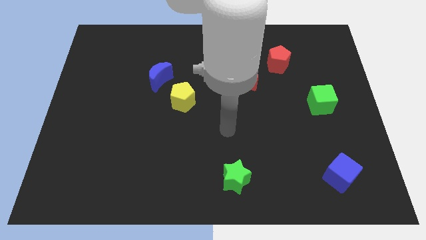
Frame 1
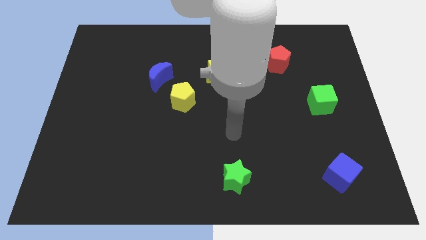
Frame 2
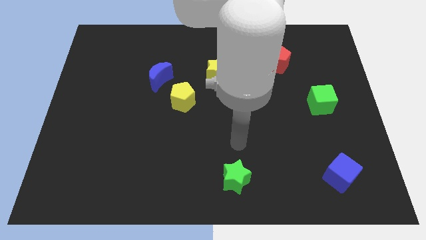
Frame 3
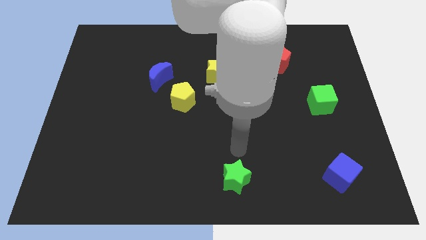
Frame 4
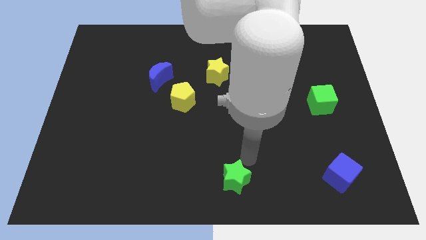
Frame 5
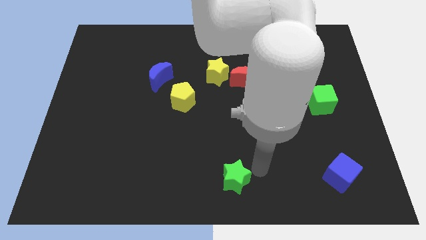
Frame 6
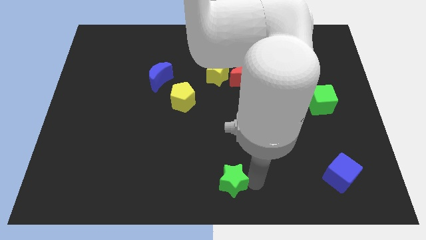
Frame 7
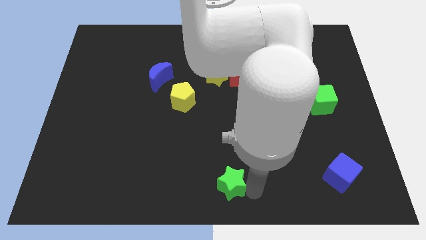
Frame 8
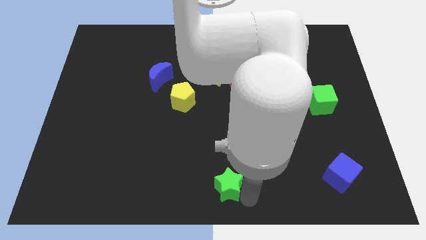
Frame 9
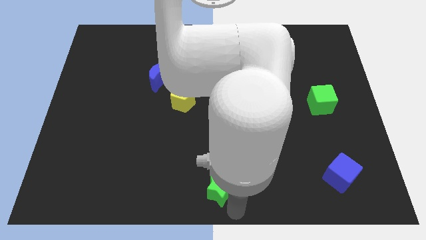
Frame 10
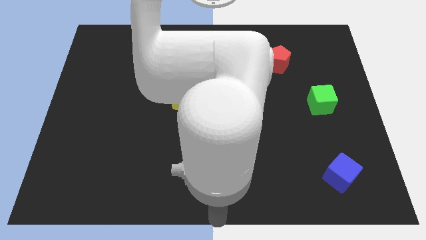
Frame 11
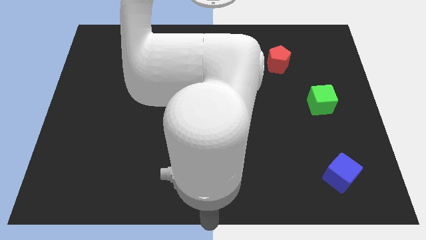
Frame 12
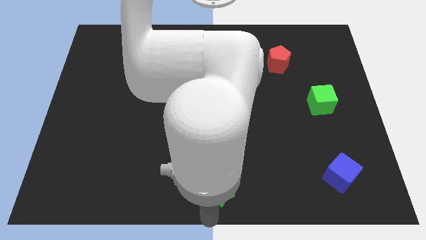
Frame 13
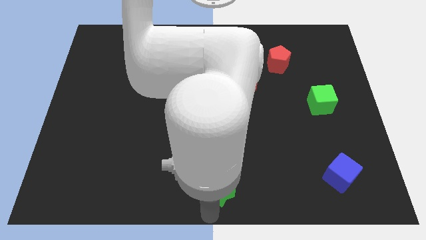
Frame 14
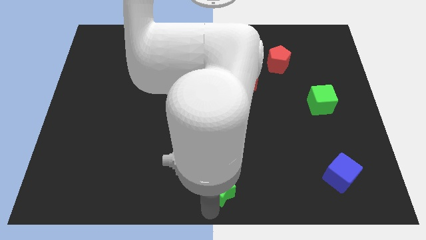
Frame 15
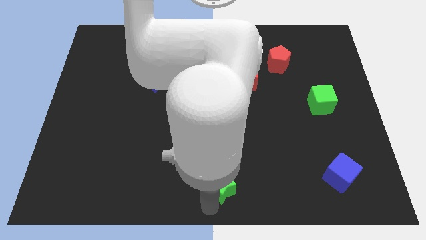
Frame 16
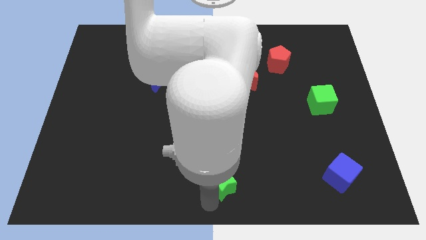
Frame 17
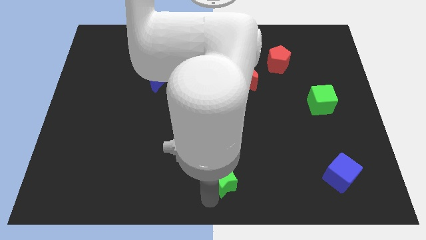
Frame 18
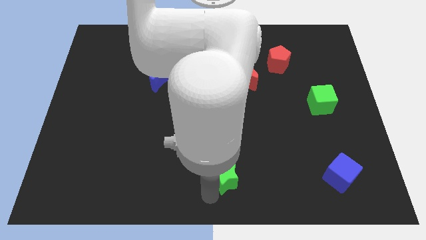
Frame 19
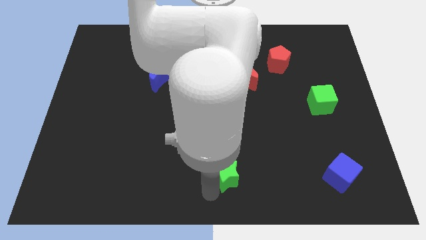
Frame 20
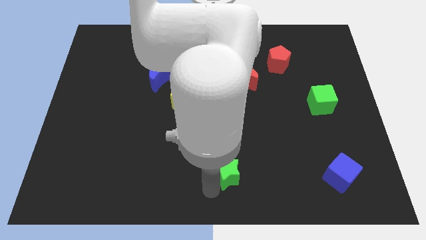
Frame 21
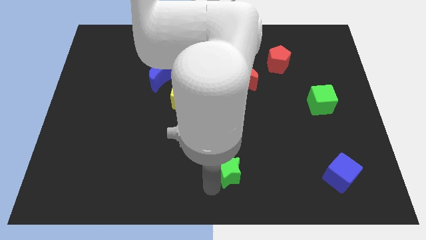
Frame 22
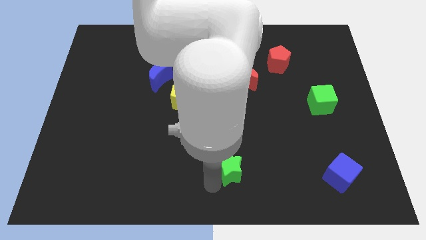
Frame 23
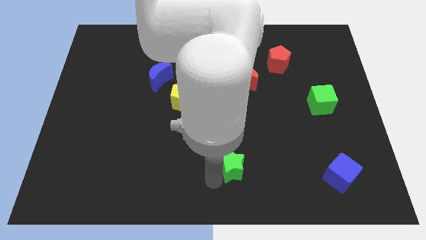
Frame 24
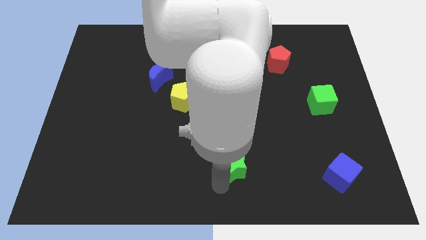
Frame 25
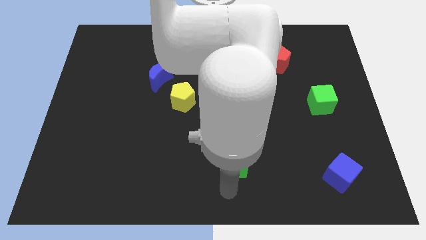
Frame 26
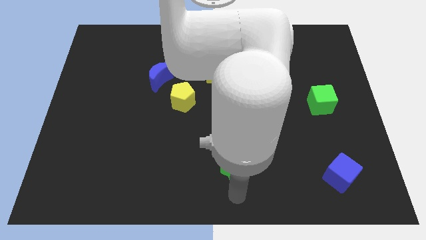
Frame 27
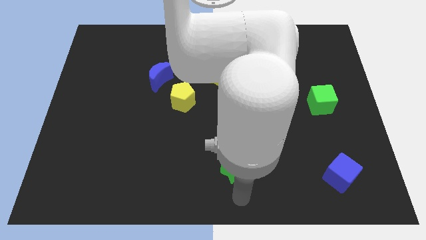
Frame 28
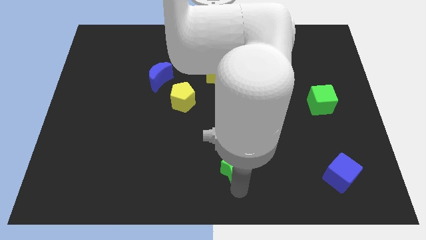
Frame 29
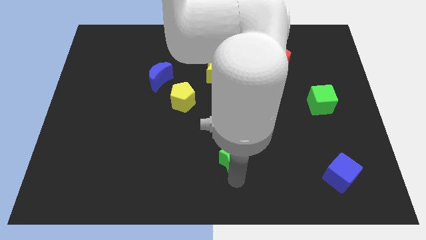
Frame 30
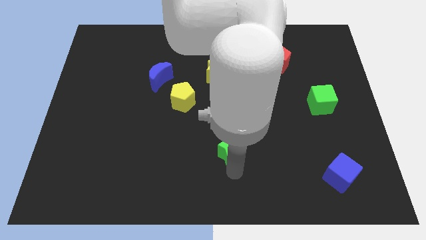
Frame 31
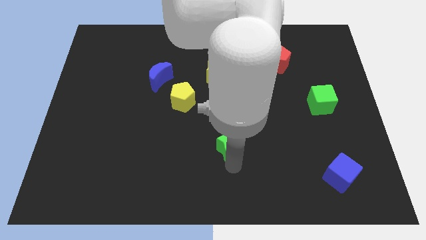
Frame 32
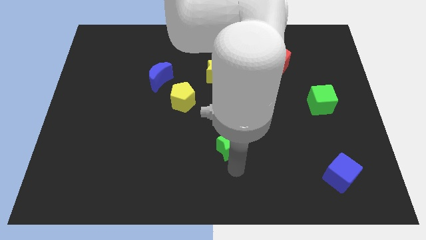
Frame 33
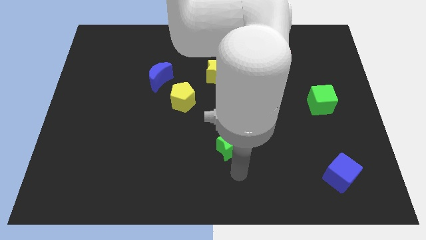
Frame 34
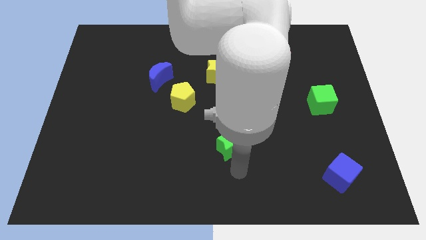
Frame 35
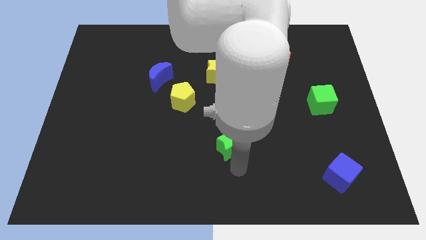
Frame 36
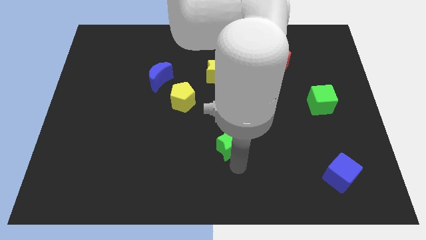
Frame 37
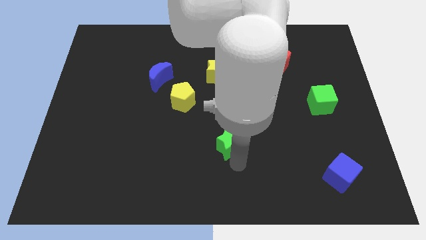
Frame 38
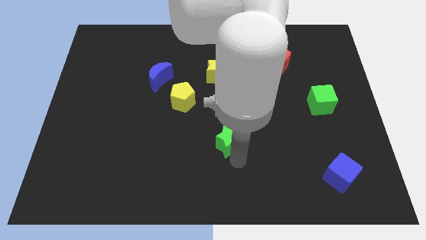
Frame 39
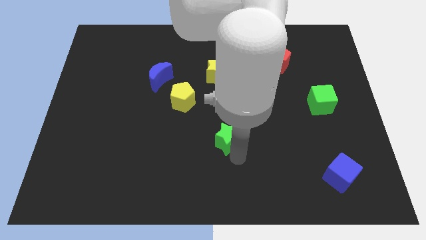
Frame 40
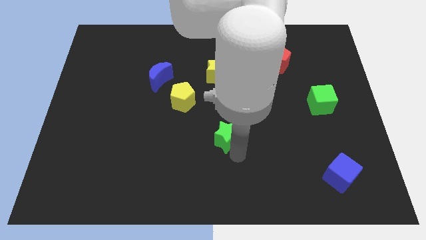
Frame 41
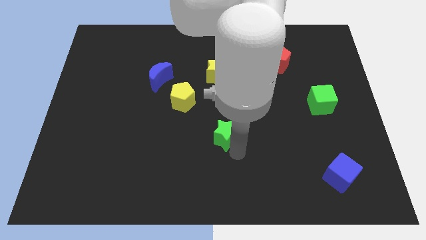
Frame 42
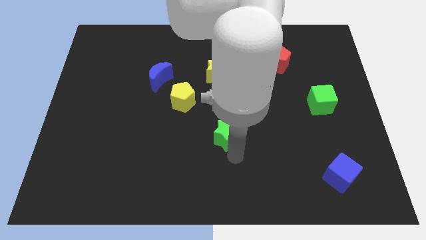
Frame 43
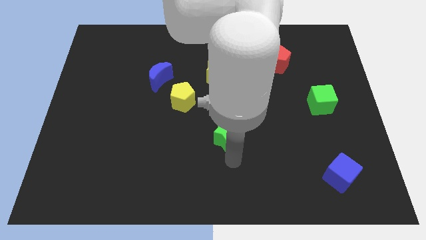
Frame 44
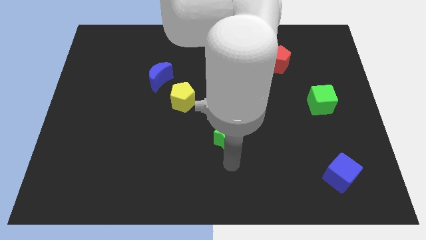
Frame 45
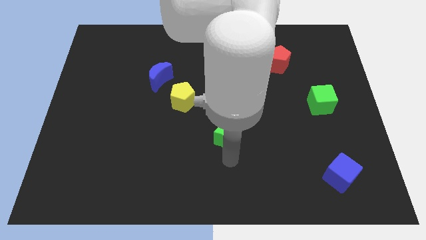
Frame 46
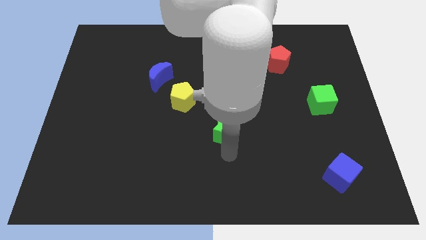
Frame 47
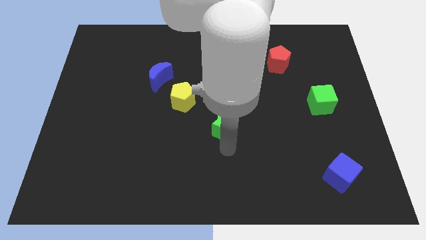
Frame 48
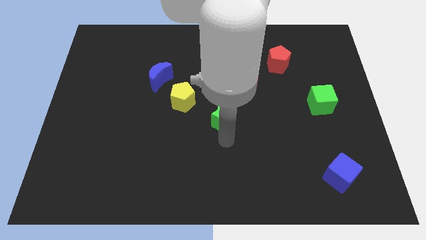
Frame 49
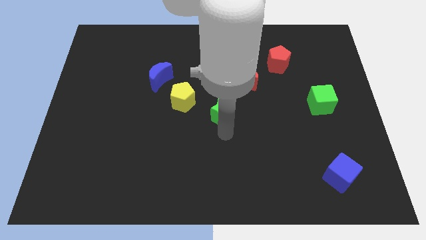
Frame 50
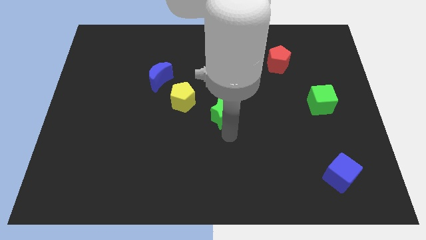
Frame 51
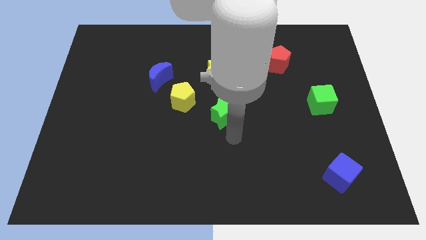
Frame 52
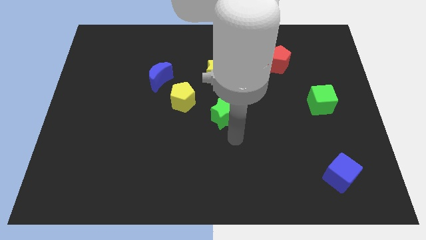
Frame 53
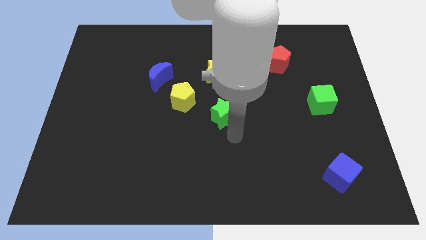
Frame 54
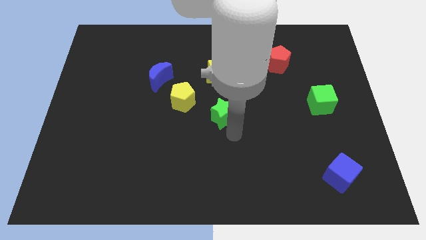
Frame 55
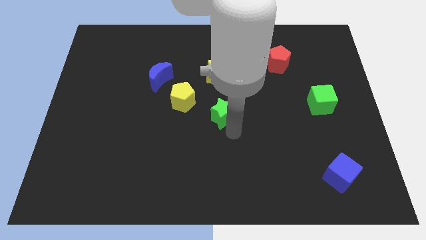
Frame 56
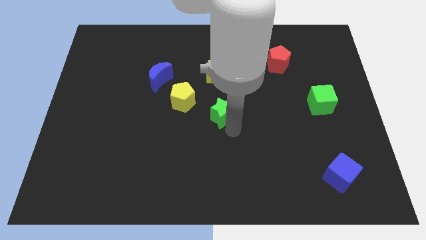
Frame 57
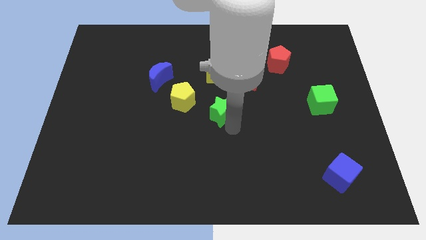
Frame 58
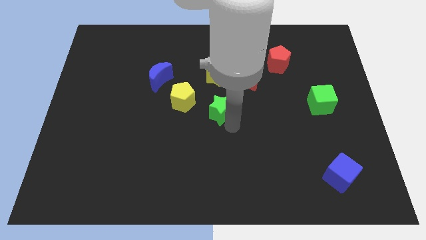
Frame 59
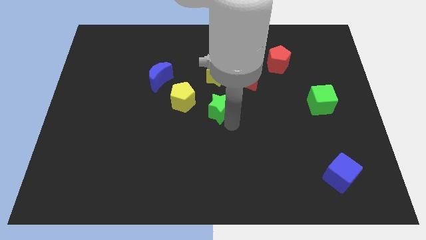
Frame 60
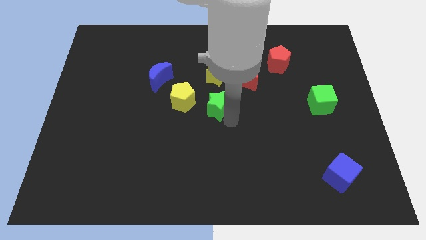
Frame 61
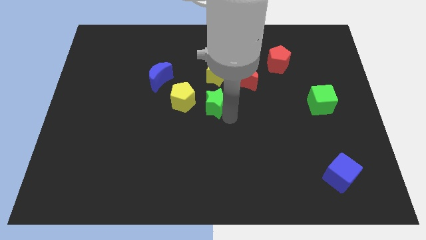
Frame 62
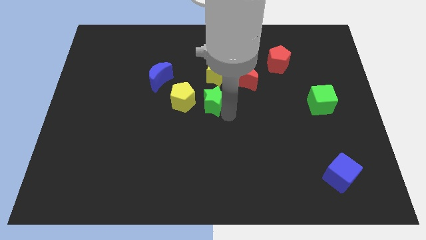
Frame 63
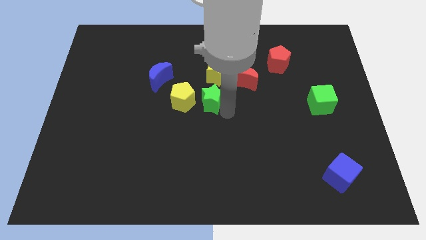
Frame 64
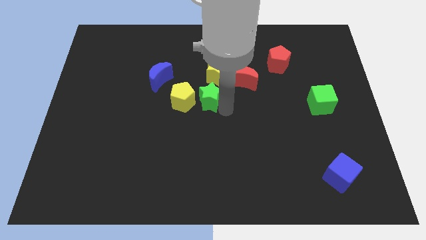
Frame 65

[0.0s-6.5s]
move the green star to the bottom left side of the yellow star

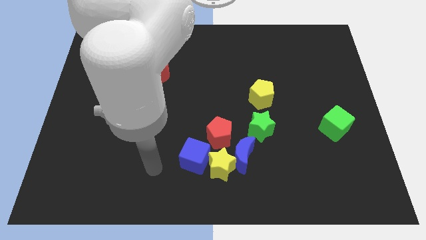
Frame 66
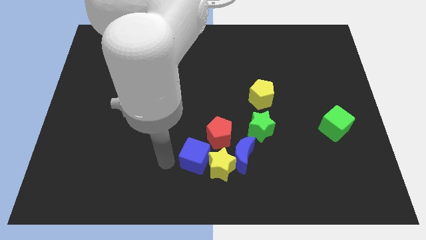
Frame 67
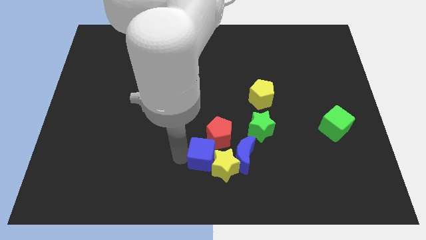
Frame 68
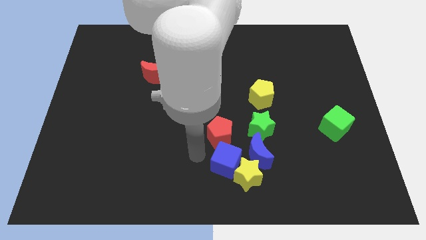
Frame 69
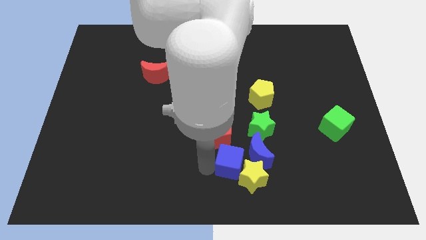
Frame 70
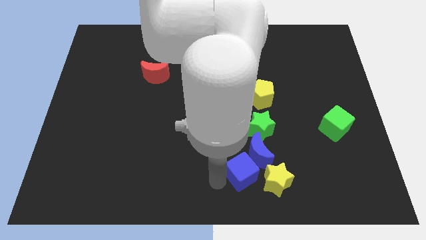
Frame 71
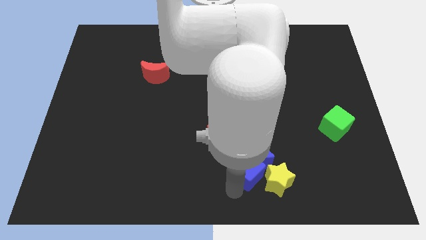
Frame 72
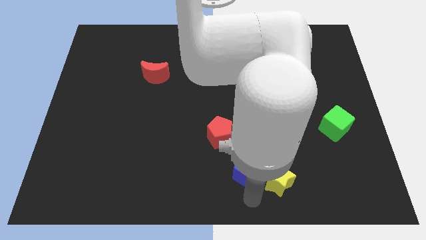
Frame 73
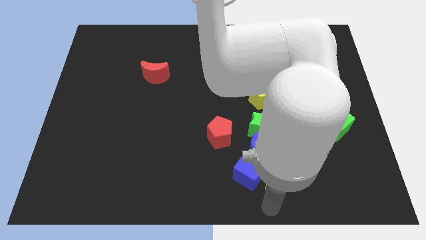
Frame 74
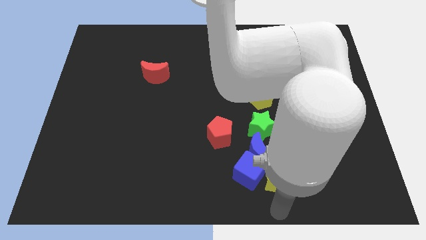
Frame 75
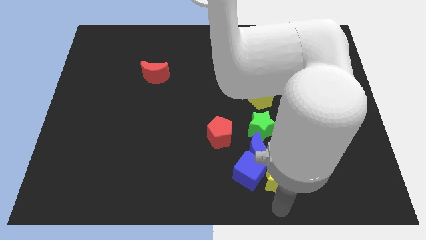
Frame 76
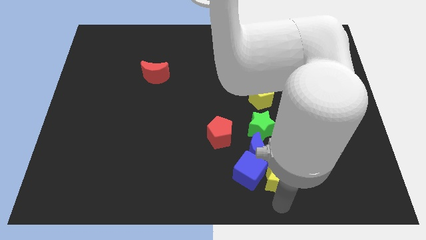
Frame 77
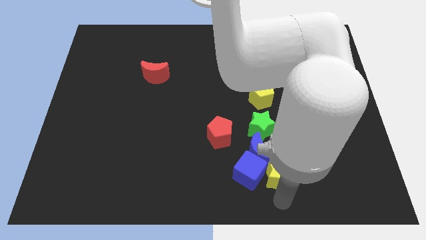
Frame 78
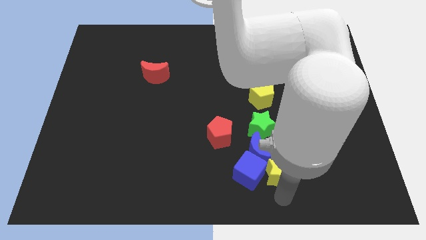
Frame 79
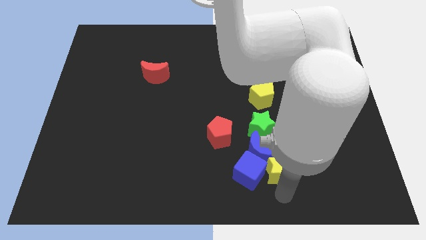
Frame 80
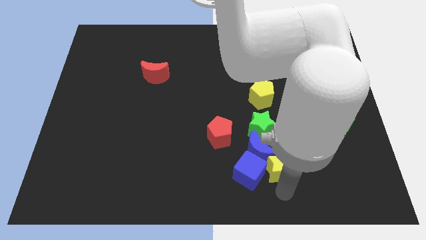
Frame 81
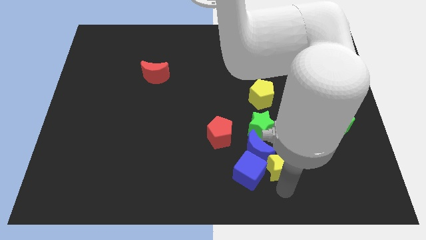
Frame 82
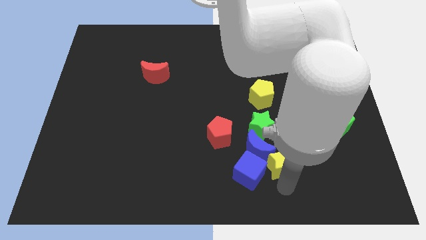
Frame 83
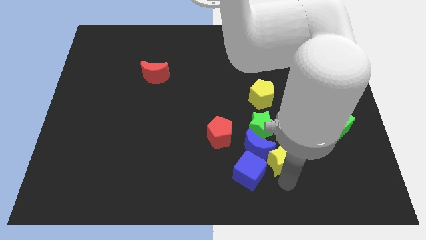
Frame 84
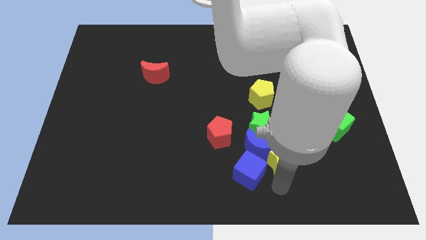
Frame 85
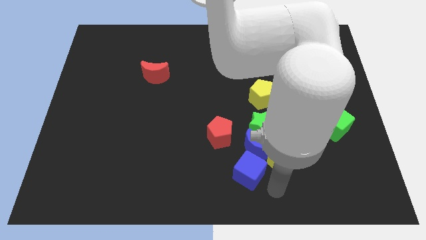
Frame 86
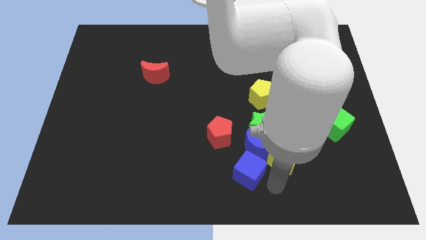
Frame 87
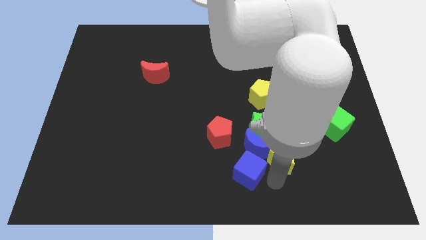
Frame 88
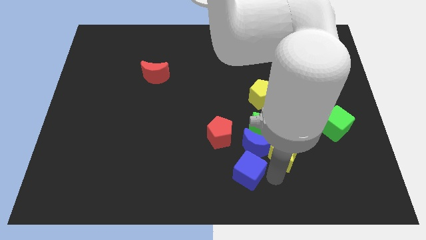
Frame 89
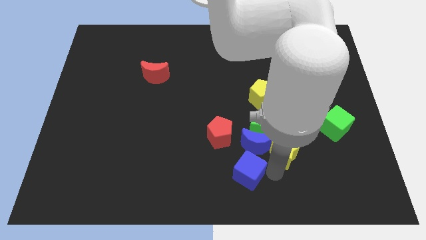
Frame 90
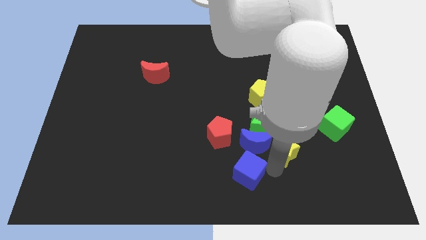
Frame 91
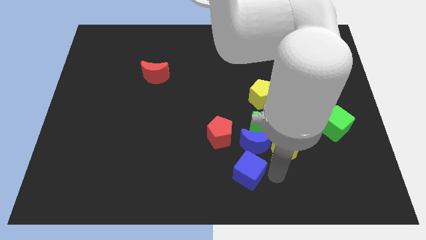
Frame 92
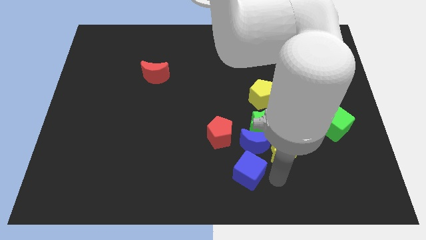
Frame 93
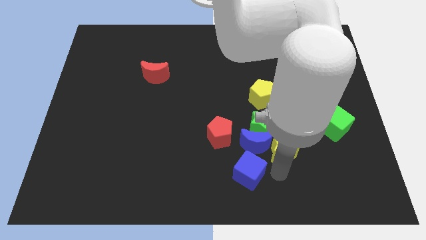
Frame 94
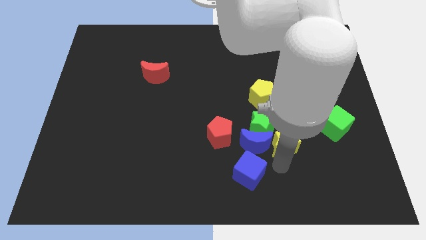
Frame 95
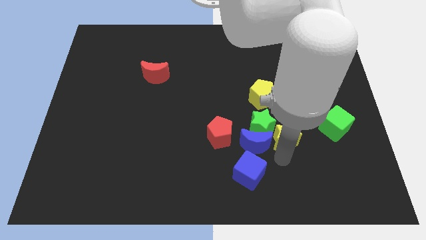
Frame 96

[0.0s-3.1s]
move the yellow star left of the green cube
